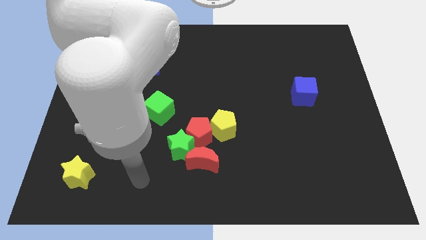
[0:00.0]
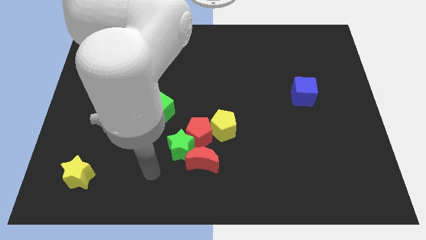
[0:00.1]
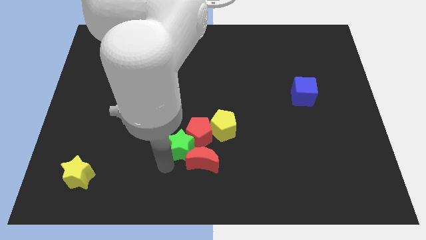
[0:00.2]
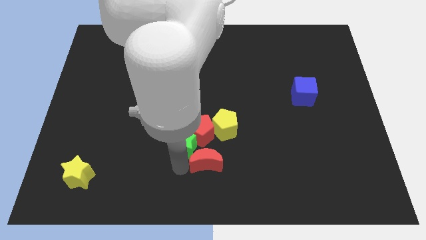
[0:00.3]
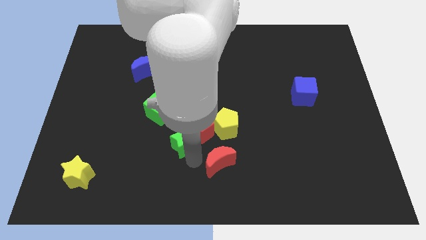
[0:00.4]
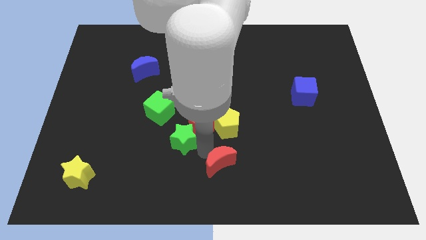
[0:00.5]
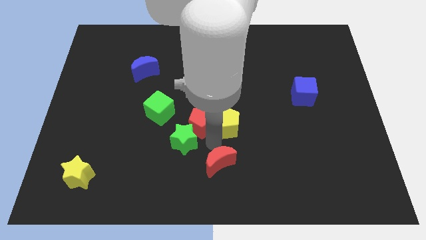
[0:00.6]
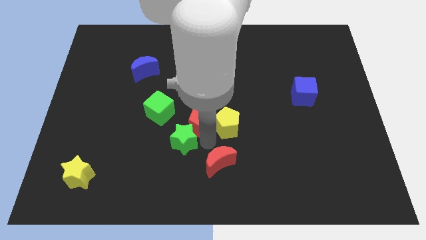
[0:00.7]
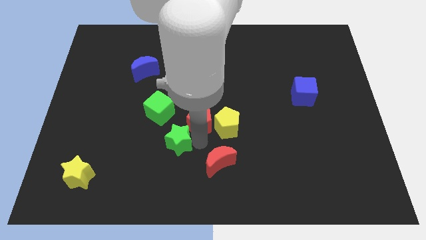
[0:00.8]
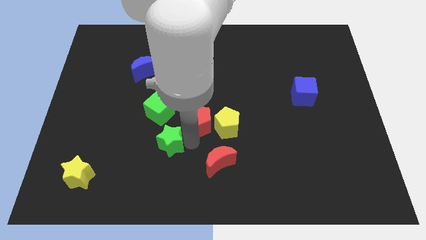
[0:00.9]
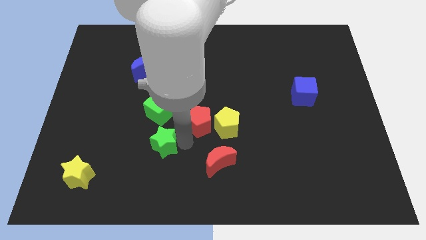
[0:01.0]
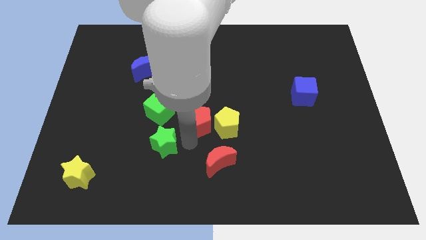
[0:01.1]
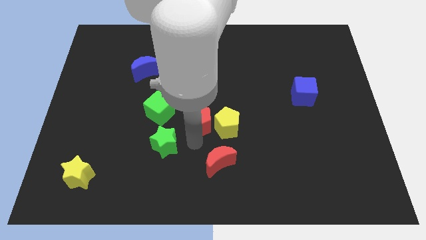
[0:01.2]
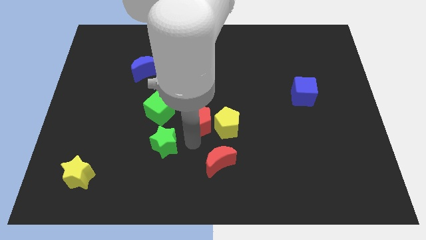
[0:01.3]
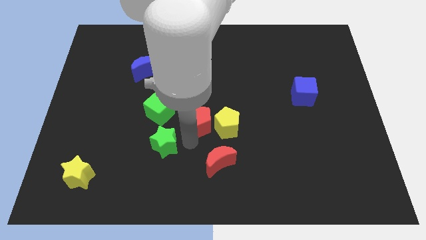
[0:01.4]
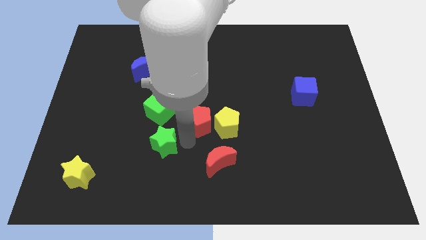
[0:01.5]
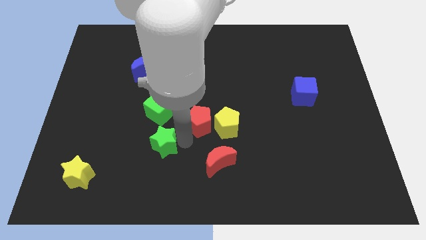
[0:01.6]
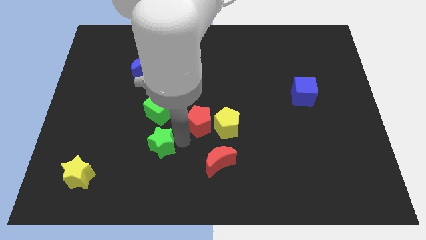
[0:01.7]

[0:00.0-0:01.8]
pull the green star apart from the red pentagon and red moon

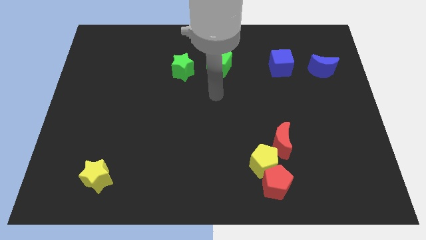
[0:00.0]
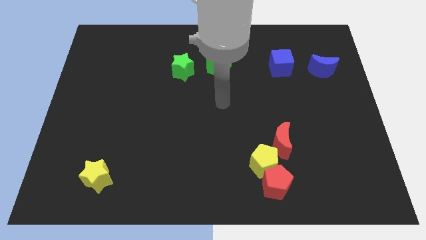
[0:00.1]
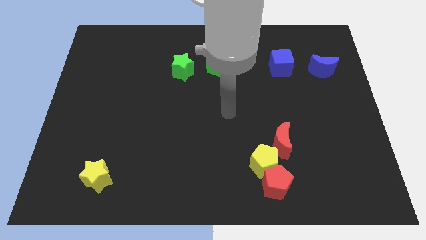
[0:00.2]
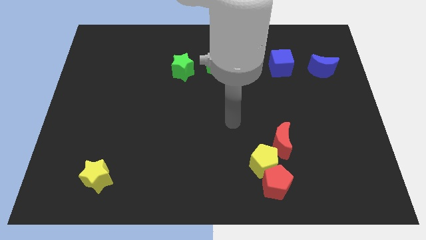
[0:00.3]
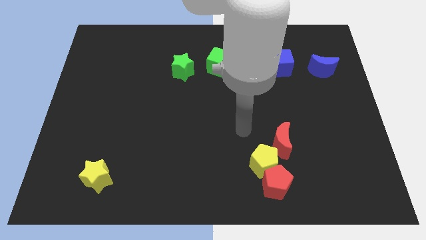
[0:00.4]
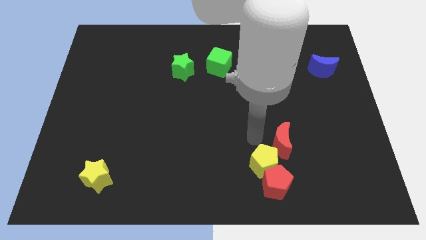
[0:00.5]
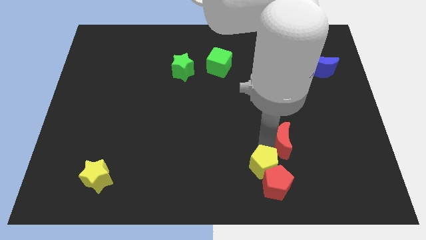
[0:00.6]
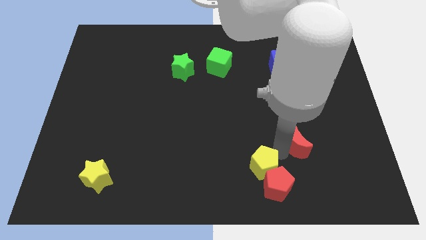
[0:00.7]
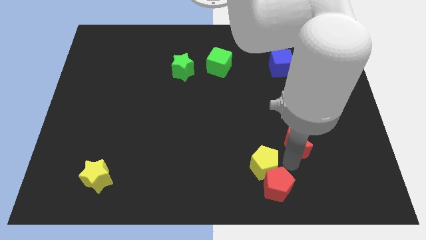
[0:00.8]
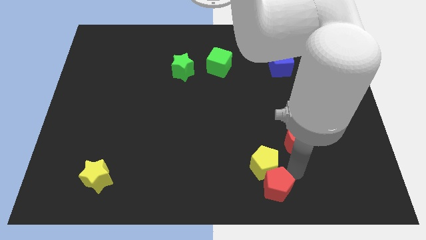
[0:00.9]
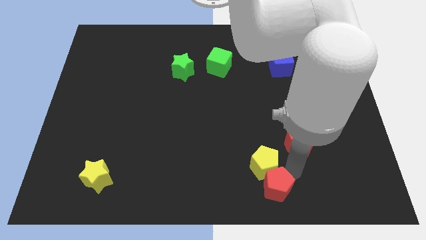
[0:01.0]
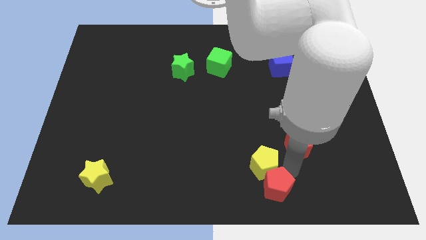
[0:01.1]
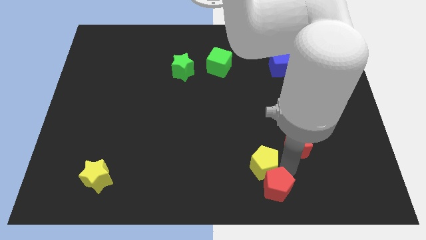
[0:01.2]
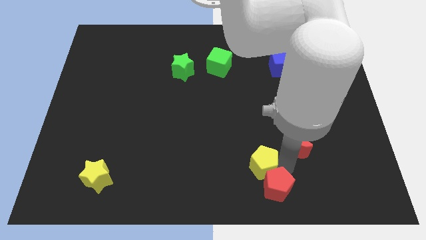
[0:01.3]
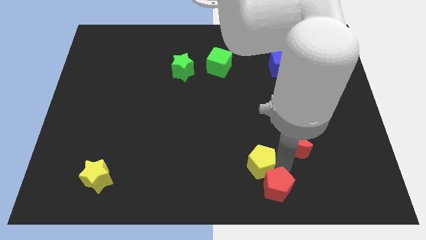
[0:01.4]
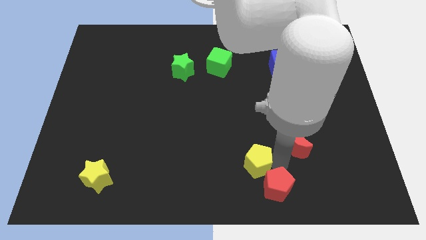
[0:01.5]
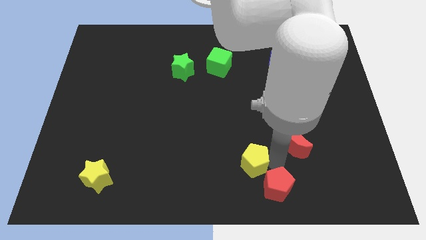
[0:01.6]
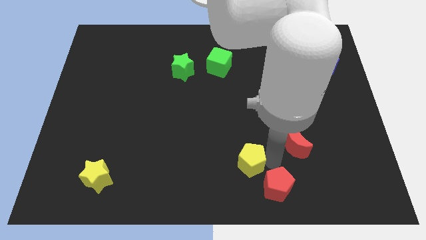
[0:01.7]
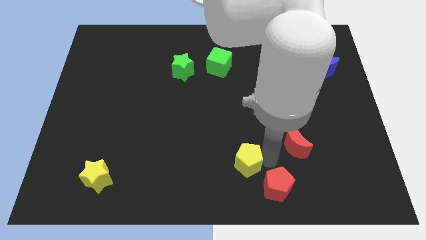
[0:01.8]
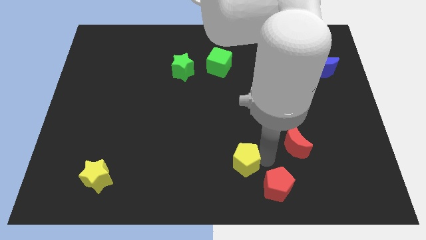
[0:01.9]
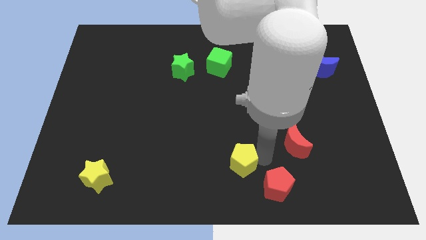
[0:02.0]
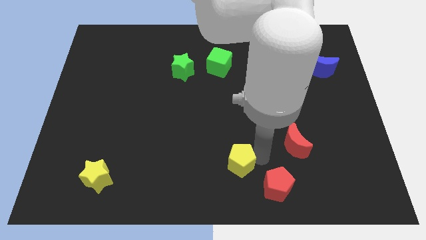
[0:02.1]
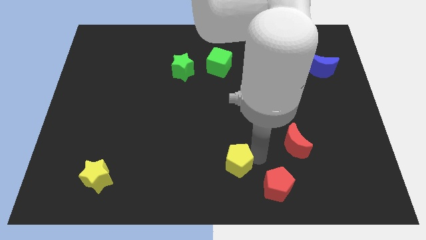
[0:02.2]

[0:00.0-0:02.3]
pull the yellow pentagon apart from the red pentagon and red moon

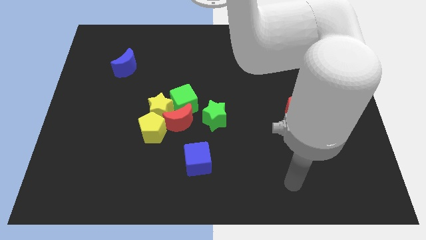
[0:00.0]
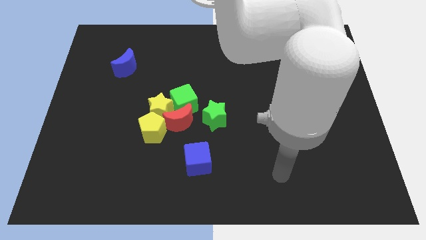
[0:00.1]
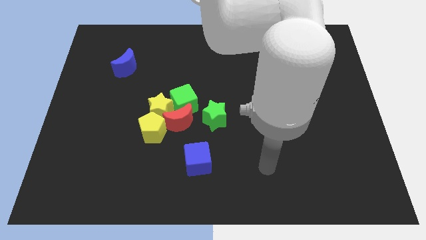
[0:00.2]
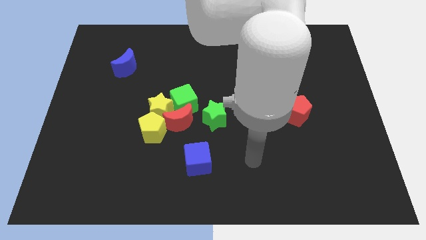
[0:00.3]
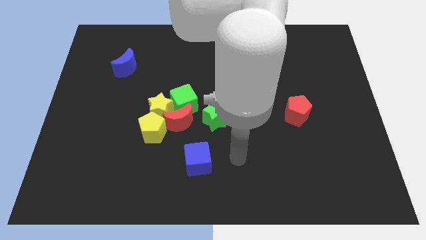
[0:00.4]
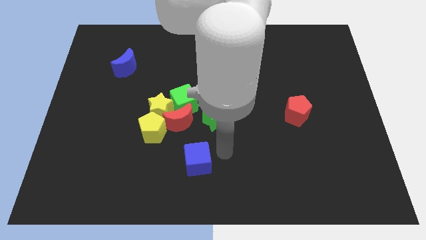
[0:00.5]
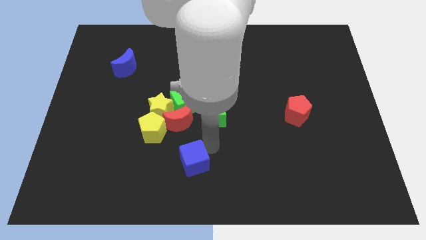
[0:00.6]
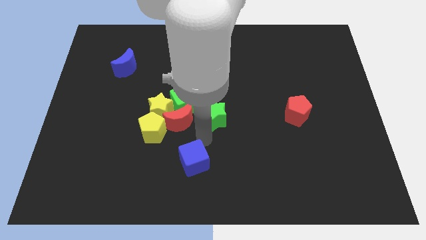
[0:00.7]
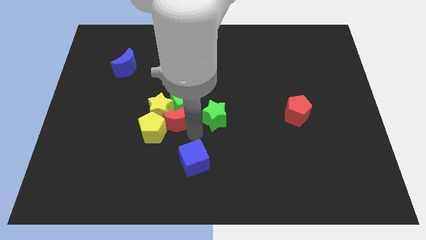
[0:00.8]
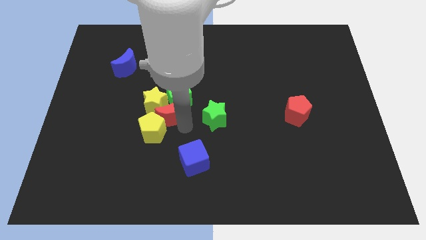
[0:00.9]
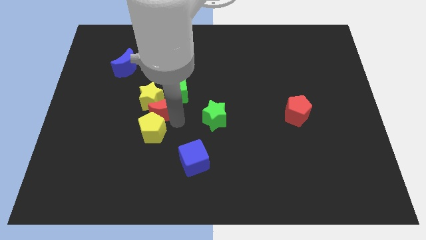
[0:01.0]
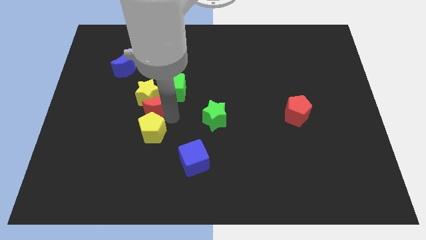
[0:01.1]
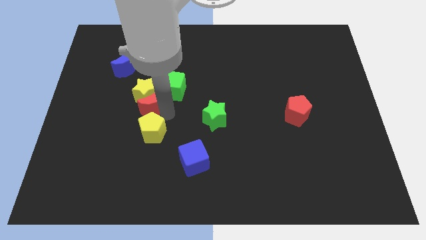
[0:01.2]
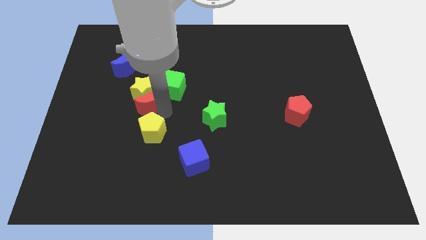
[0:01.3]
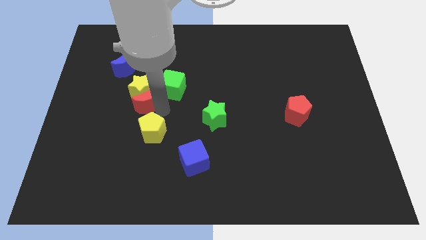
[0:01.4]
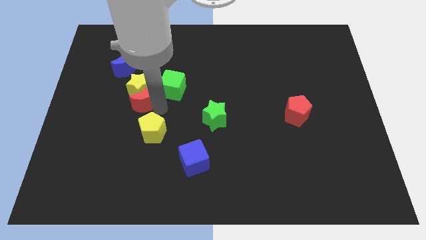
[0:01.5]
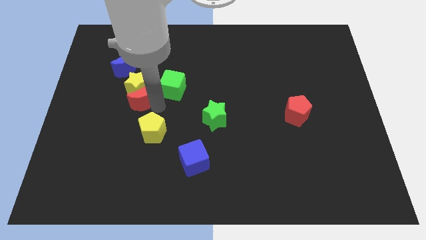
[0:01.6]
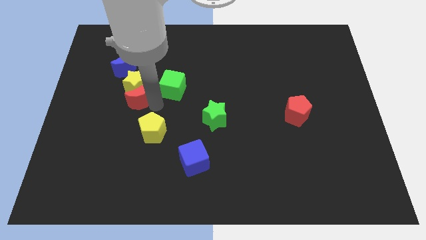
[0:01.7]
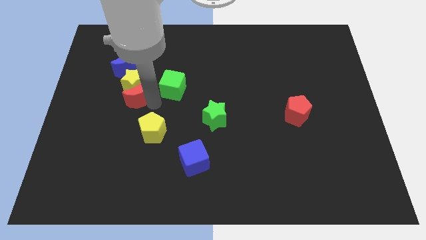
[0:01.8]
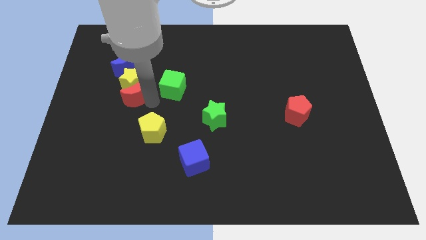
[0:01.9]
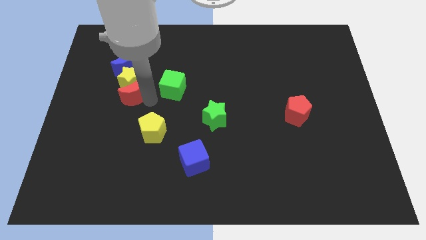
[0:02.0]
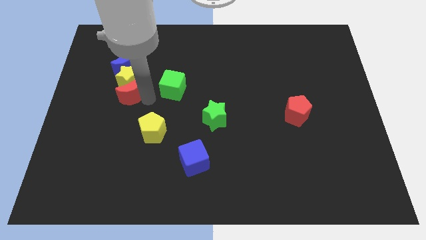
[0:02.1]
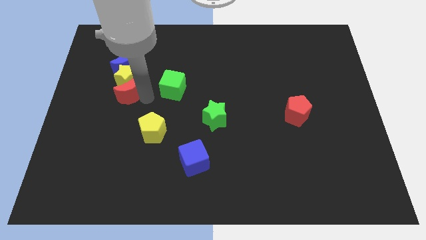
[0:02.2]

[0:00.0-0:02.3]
pull the yellow star apart from the clump

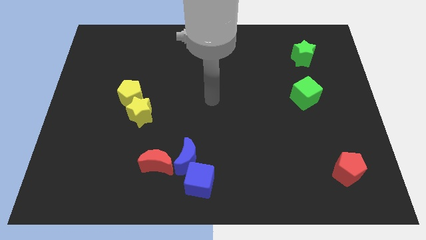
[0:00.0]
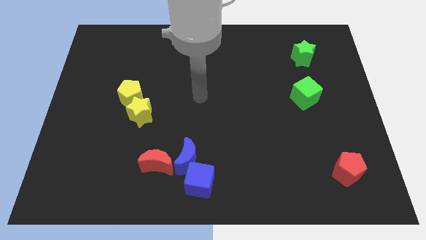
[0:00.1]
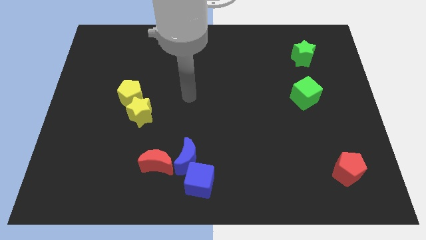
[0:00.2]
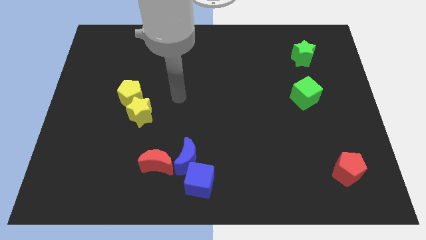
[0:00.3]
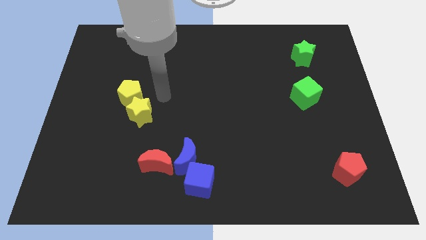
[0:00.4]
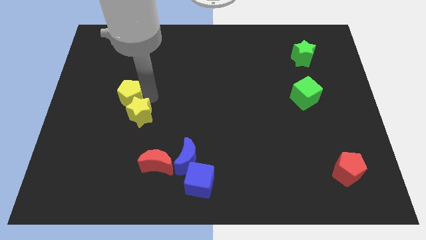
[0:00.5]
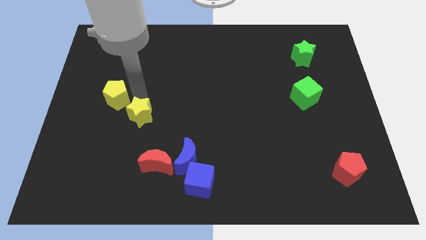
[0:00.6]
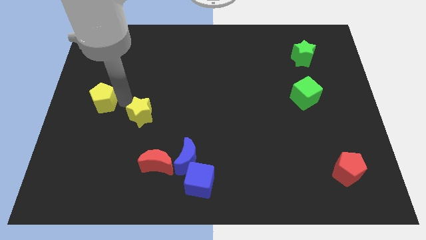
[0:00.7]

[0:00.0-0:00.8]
move the yellow star away from the yellow pentagon

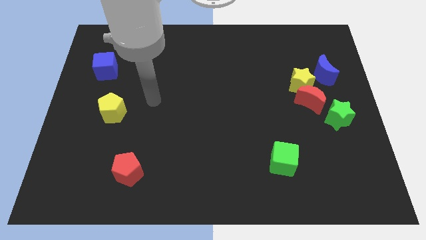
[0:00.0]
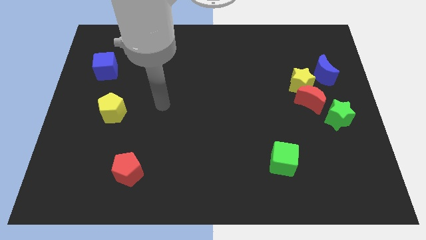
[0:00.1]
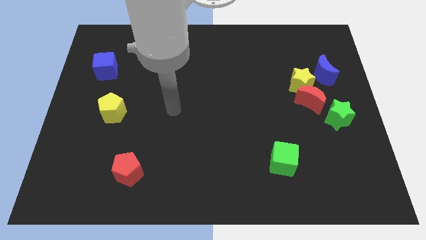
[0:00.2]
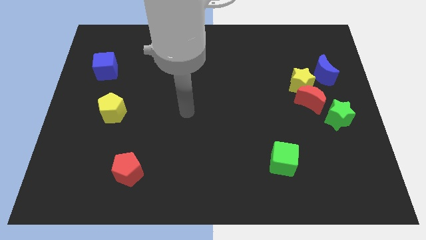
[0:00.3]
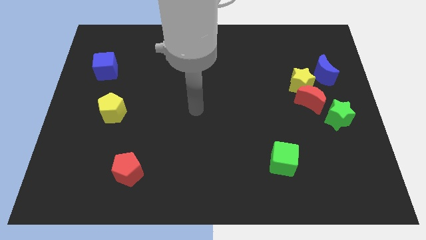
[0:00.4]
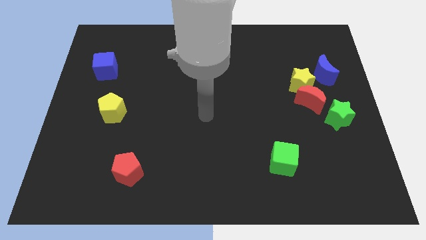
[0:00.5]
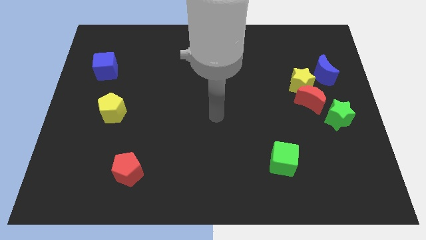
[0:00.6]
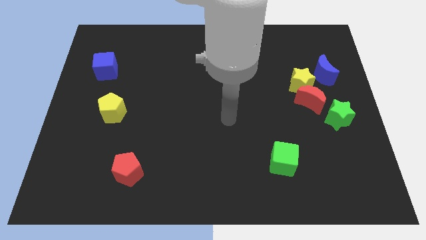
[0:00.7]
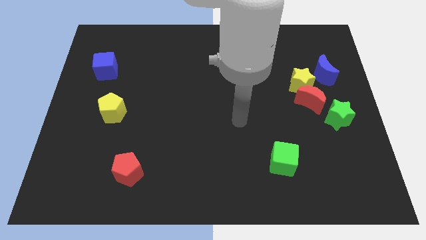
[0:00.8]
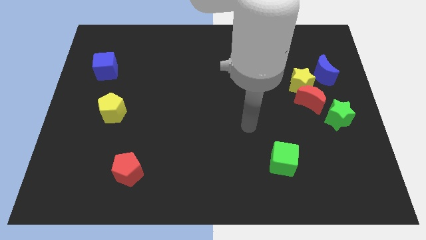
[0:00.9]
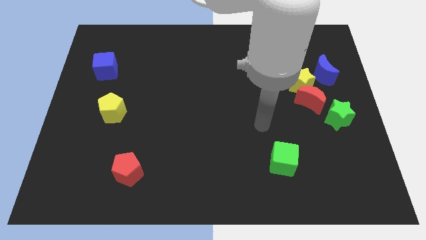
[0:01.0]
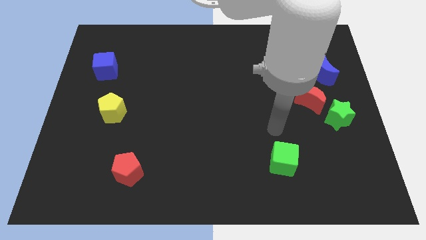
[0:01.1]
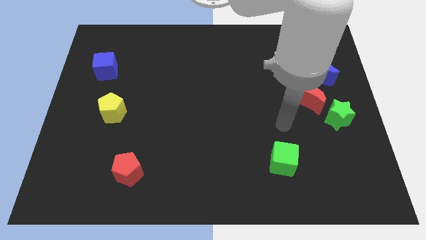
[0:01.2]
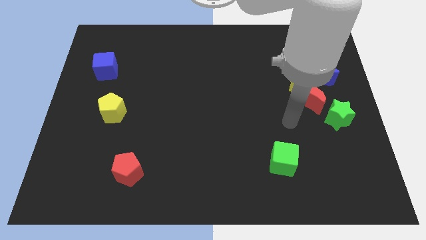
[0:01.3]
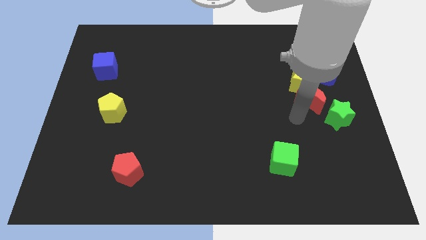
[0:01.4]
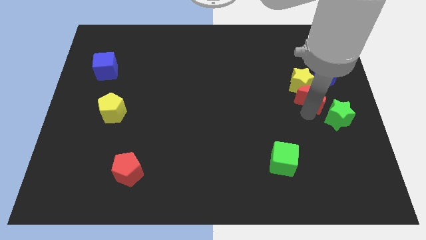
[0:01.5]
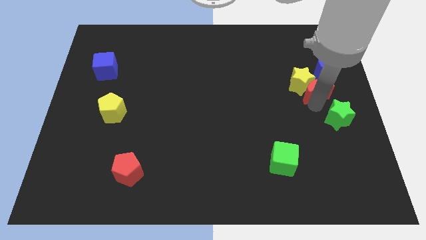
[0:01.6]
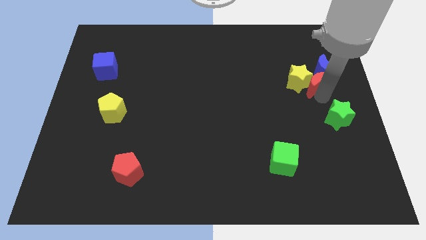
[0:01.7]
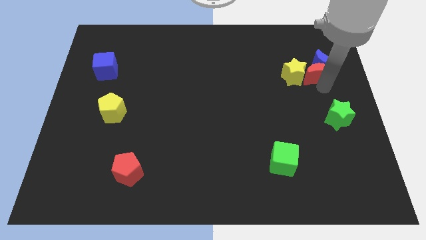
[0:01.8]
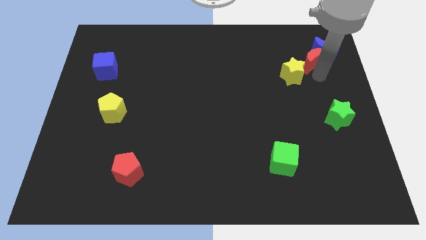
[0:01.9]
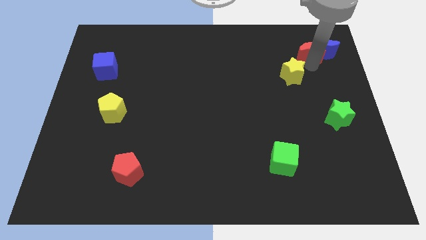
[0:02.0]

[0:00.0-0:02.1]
move the yellow star away from the red moon and blue moon
